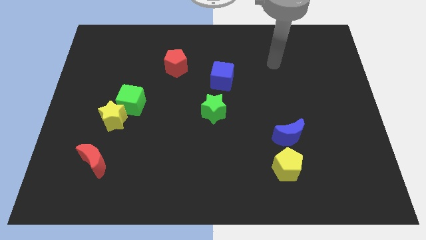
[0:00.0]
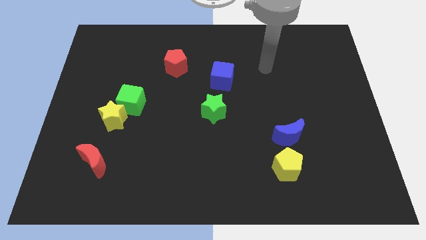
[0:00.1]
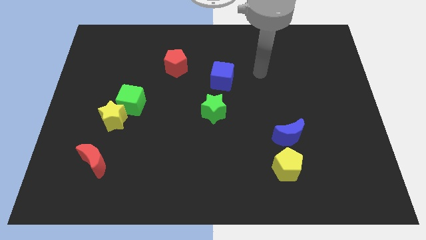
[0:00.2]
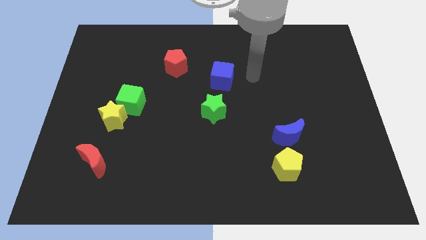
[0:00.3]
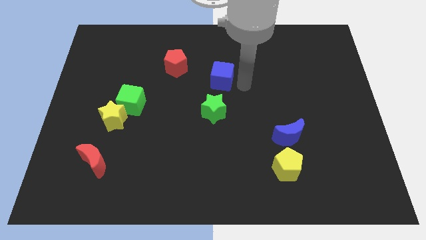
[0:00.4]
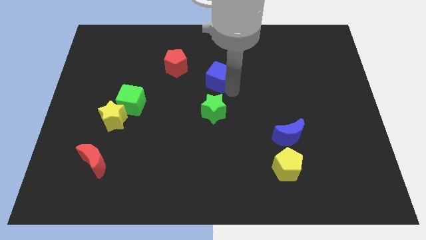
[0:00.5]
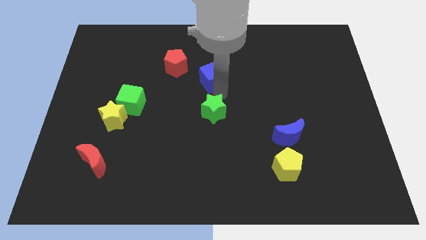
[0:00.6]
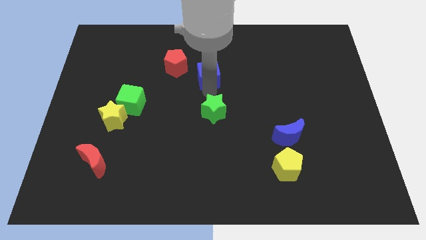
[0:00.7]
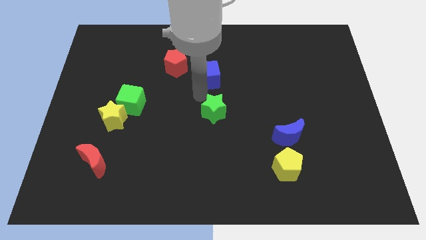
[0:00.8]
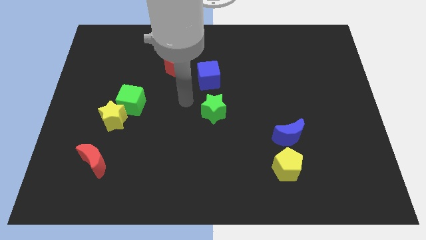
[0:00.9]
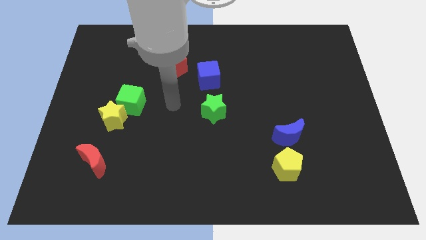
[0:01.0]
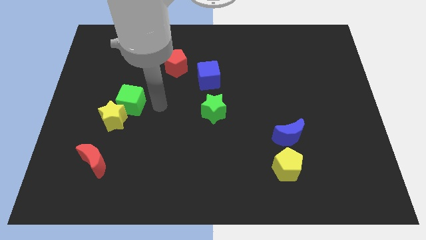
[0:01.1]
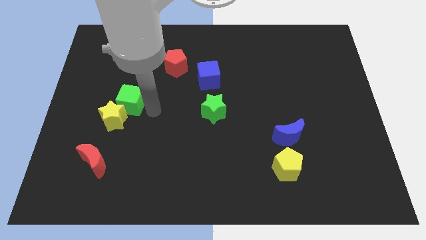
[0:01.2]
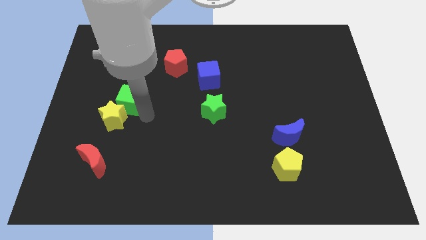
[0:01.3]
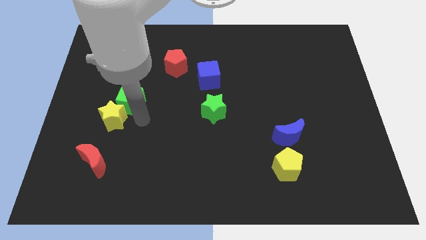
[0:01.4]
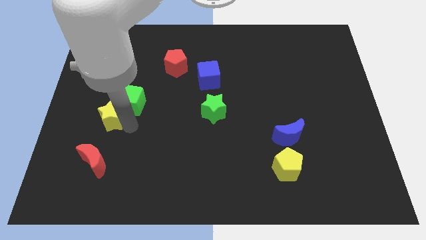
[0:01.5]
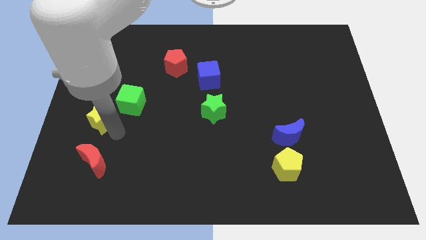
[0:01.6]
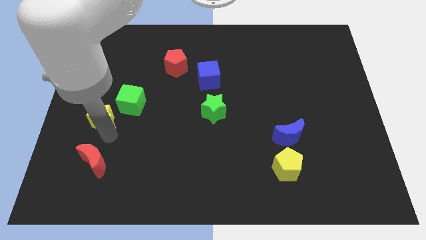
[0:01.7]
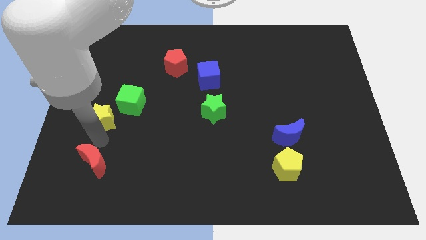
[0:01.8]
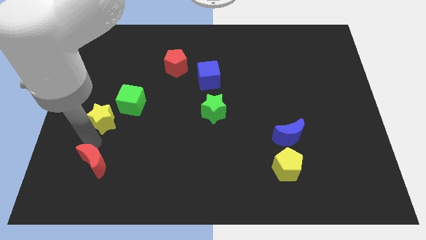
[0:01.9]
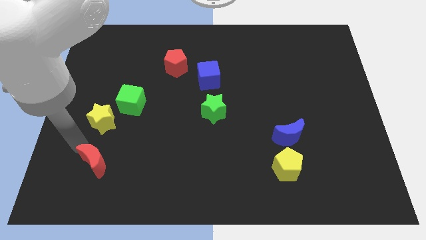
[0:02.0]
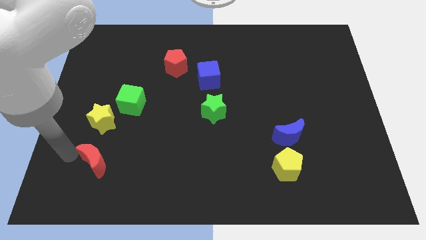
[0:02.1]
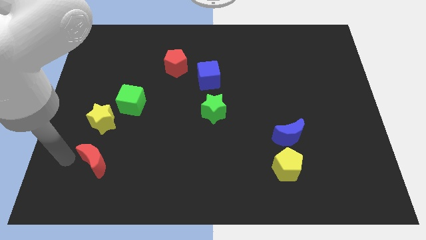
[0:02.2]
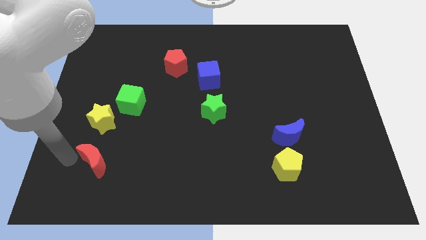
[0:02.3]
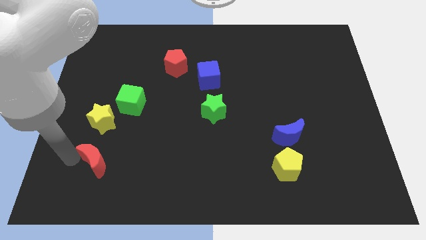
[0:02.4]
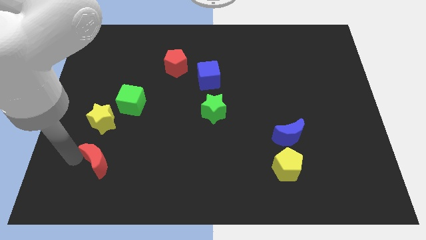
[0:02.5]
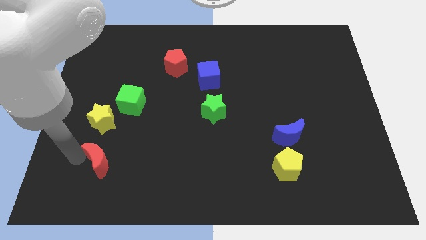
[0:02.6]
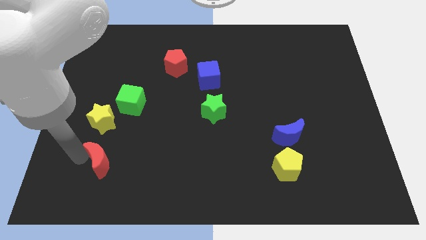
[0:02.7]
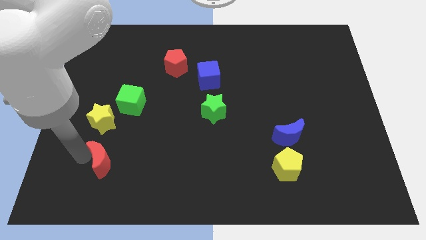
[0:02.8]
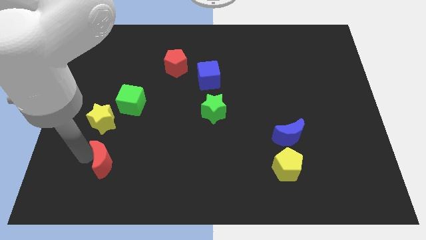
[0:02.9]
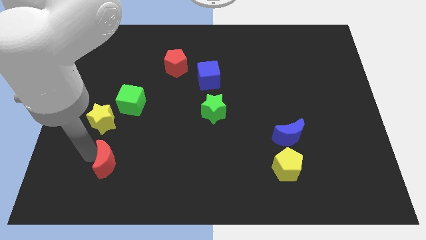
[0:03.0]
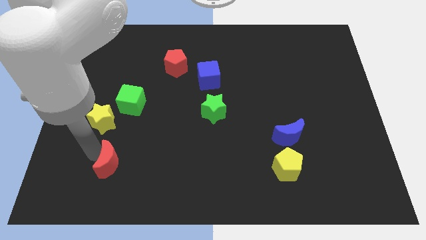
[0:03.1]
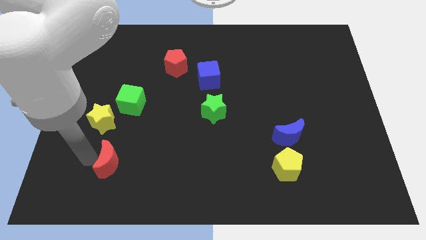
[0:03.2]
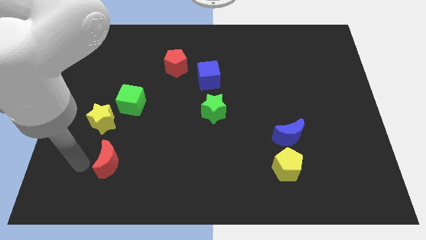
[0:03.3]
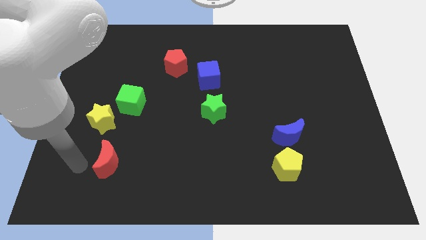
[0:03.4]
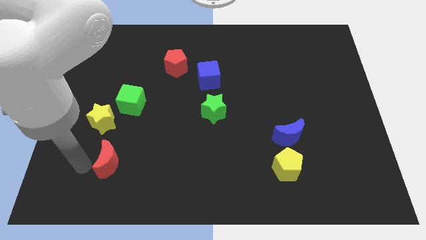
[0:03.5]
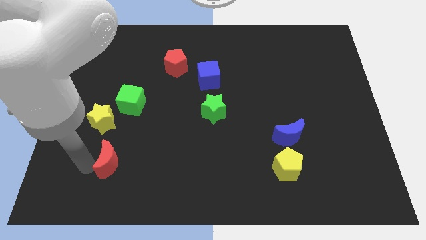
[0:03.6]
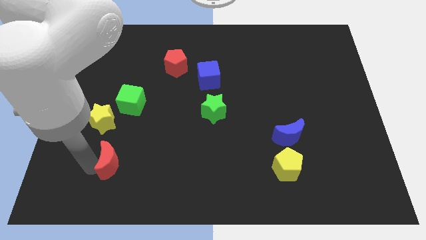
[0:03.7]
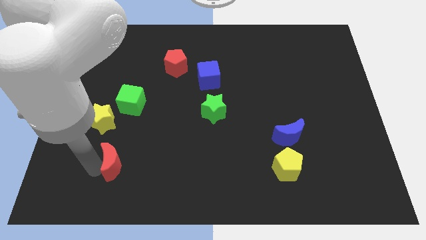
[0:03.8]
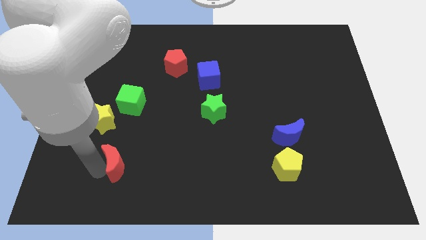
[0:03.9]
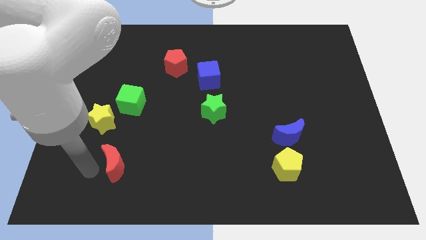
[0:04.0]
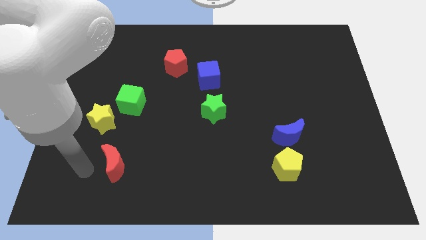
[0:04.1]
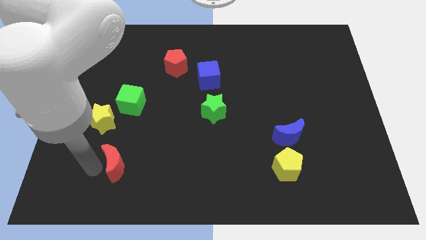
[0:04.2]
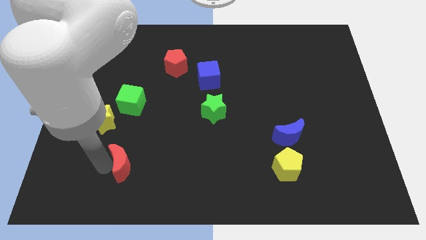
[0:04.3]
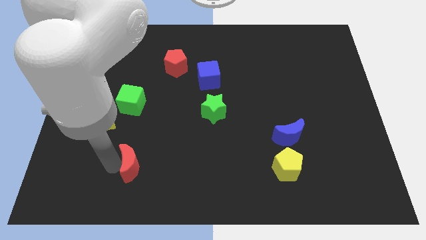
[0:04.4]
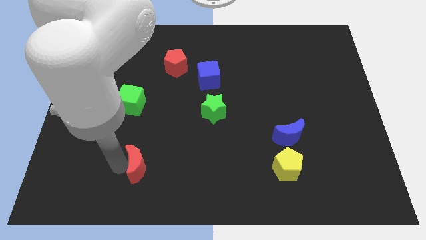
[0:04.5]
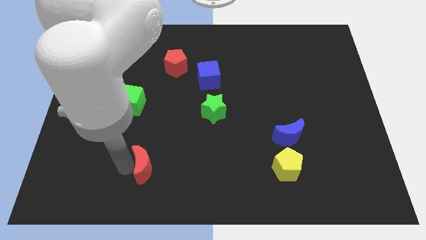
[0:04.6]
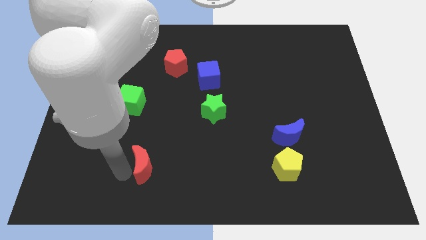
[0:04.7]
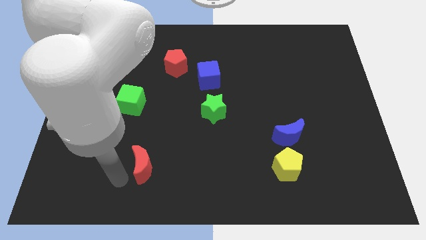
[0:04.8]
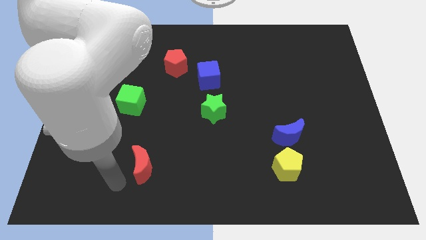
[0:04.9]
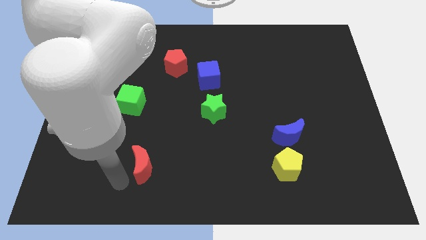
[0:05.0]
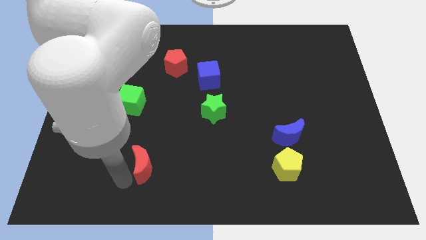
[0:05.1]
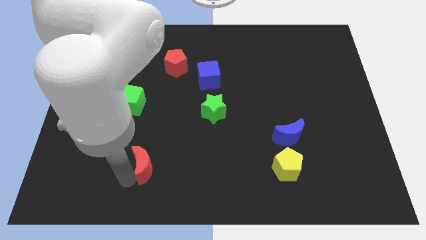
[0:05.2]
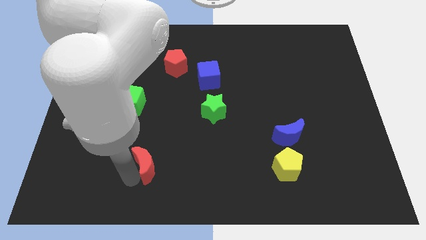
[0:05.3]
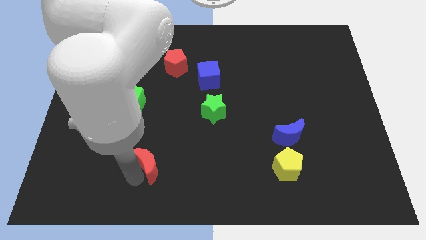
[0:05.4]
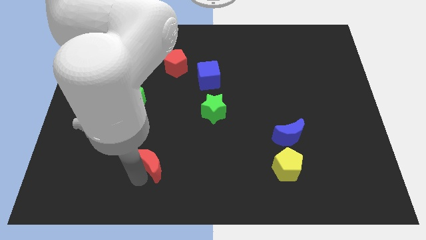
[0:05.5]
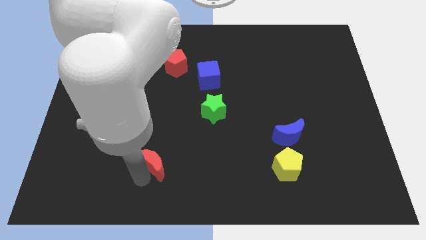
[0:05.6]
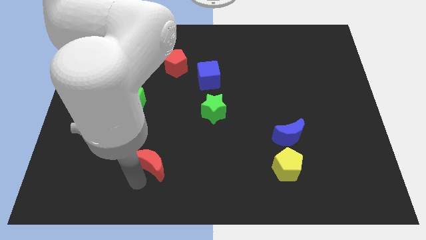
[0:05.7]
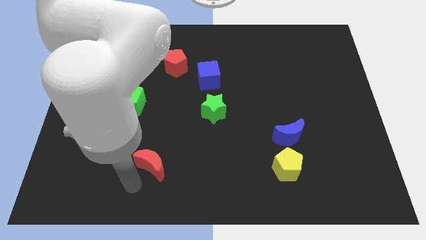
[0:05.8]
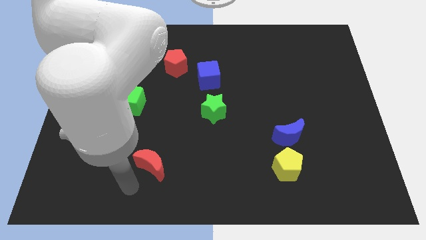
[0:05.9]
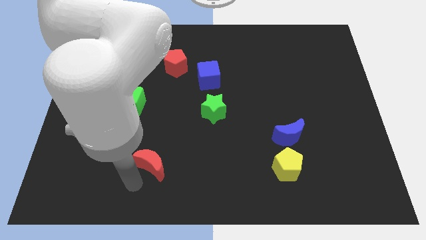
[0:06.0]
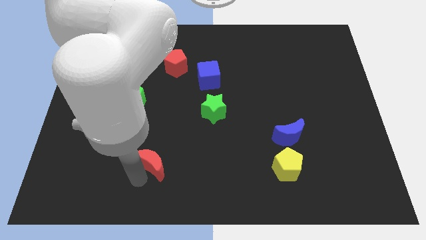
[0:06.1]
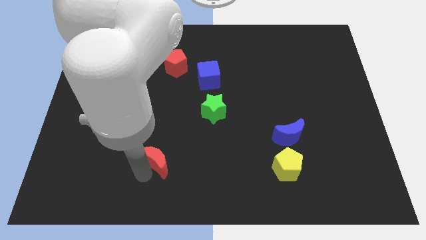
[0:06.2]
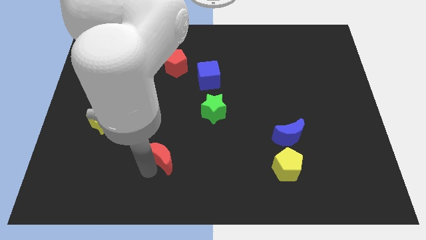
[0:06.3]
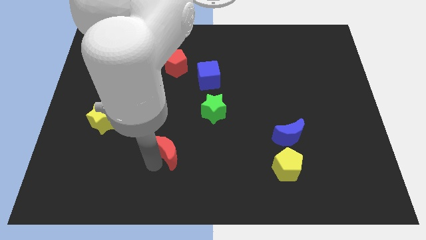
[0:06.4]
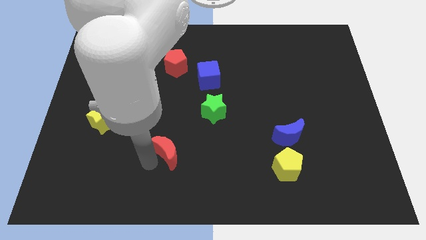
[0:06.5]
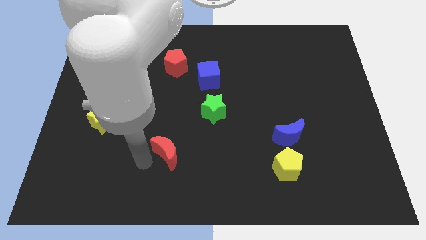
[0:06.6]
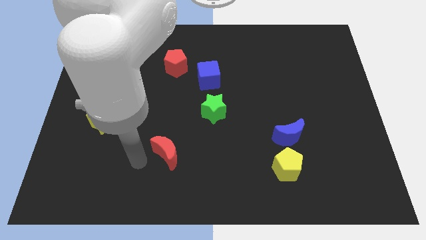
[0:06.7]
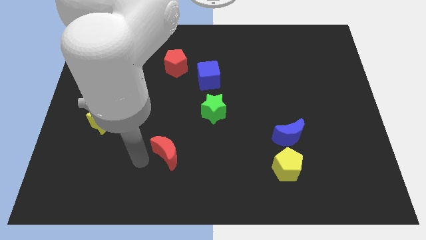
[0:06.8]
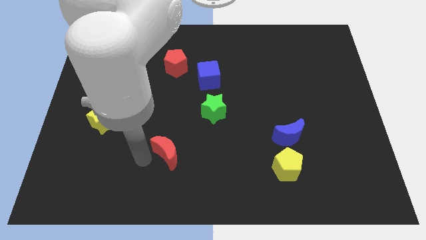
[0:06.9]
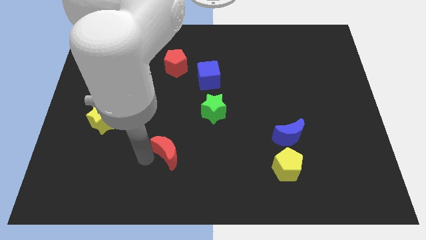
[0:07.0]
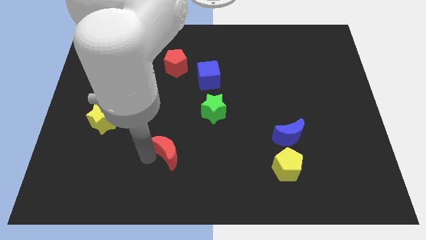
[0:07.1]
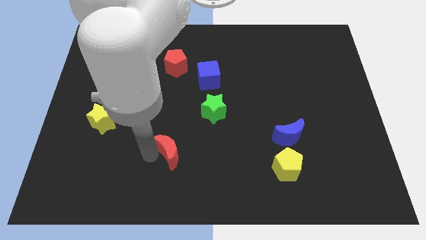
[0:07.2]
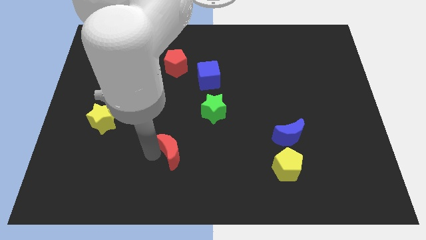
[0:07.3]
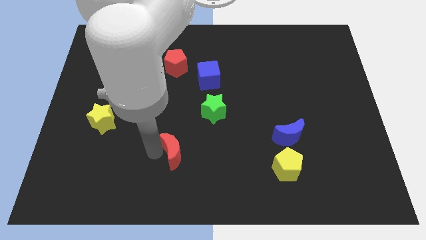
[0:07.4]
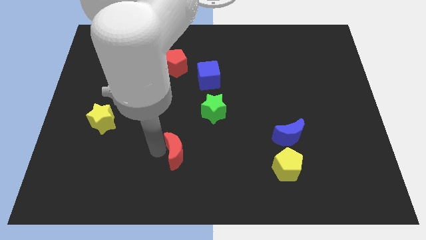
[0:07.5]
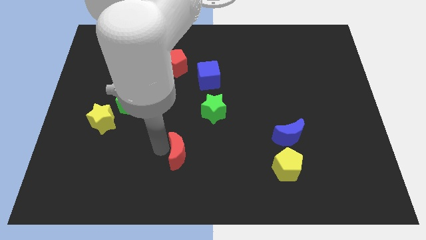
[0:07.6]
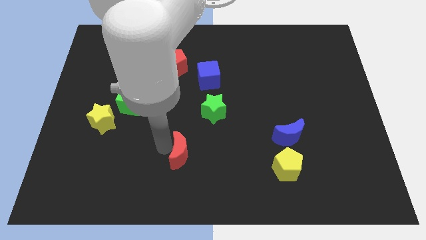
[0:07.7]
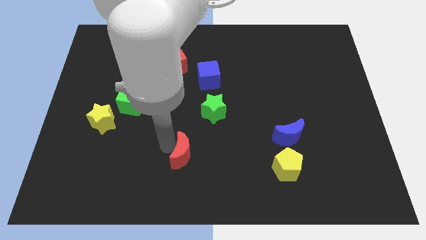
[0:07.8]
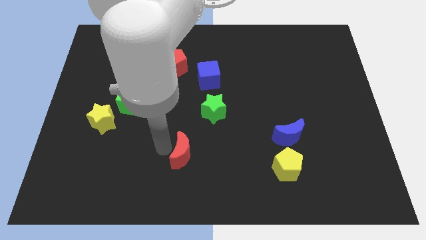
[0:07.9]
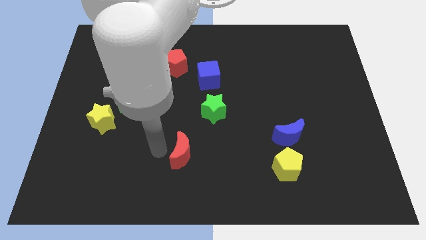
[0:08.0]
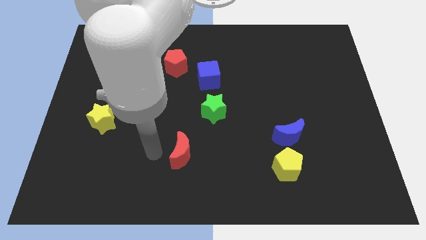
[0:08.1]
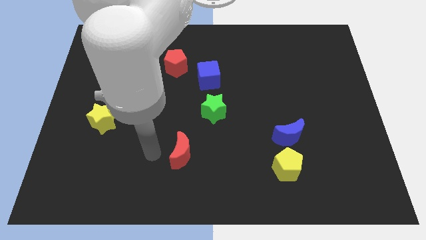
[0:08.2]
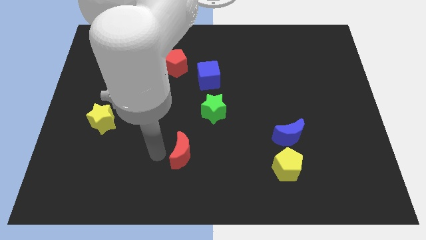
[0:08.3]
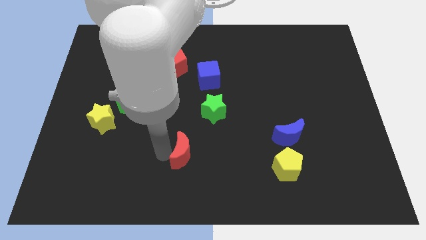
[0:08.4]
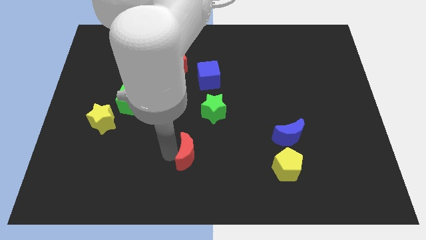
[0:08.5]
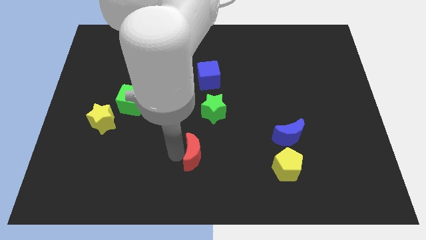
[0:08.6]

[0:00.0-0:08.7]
push the red moon to the right
